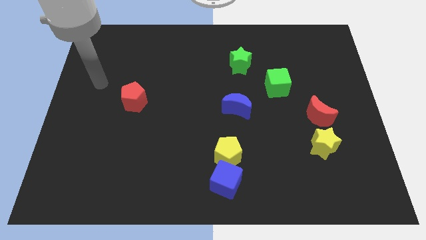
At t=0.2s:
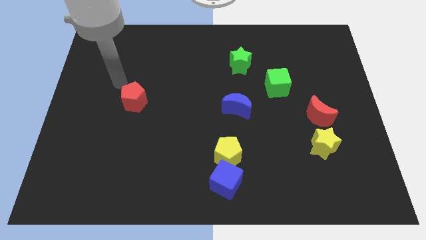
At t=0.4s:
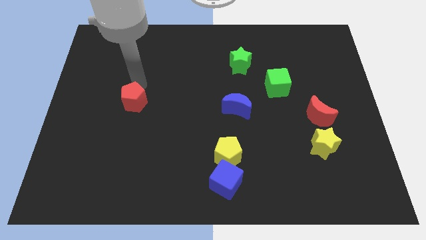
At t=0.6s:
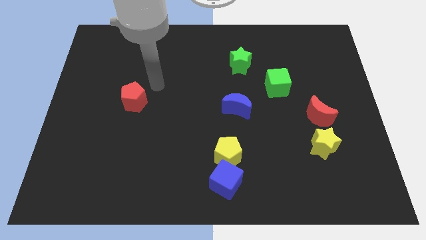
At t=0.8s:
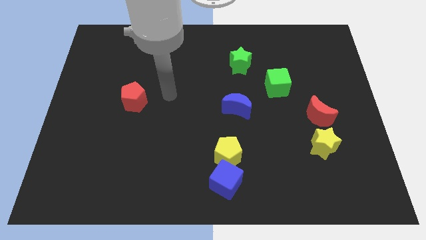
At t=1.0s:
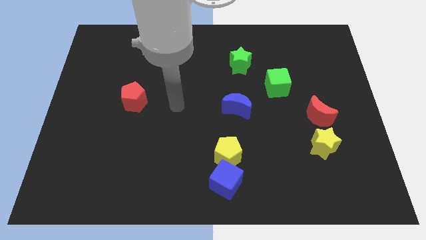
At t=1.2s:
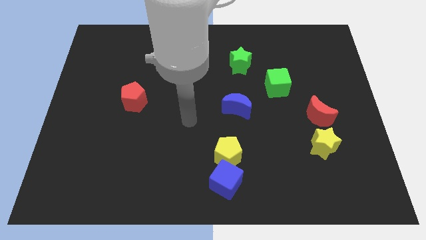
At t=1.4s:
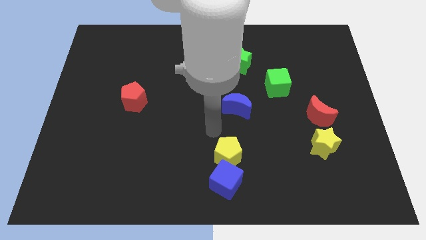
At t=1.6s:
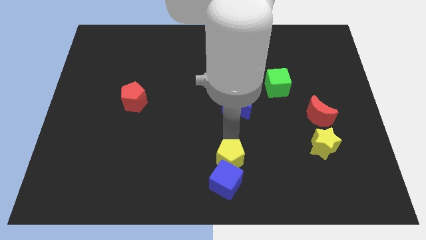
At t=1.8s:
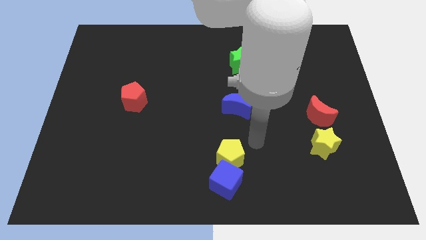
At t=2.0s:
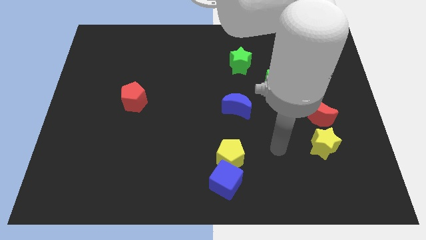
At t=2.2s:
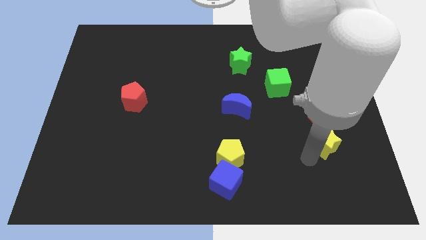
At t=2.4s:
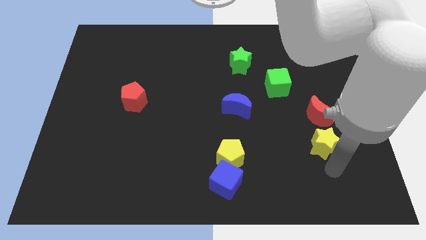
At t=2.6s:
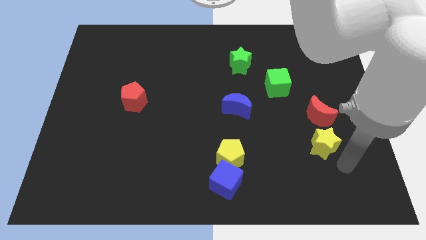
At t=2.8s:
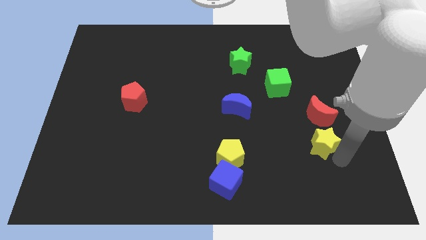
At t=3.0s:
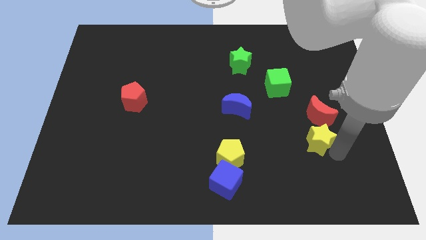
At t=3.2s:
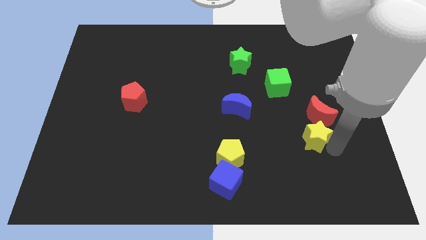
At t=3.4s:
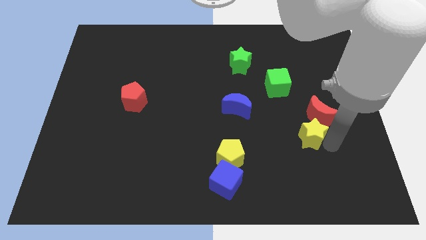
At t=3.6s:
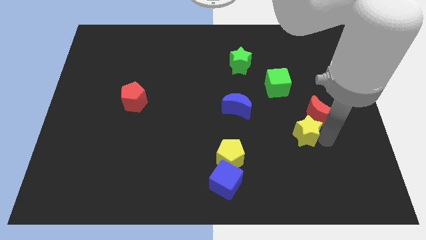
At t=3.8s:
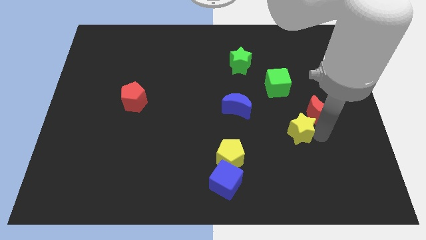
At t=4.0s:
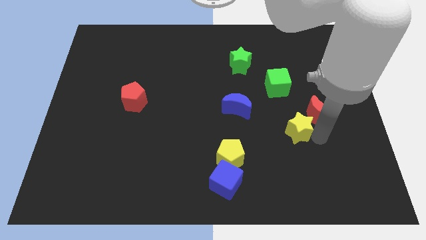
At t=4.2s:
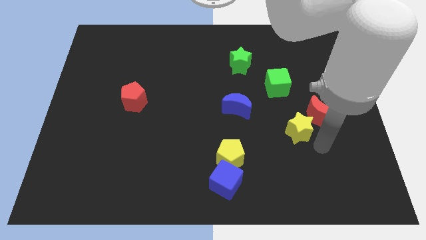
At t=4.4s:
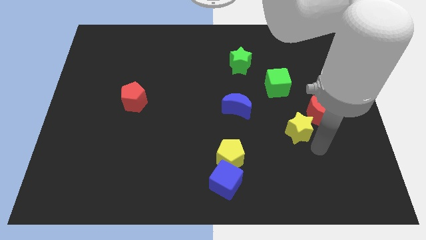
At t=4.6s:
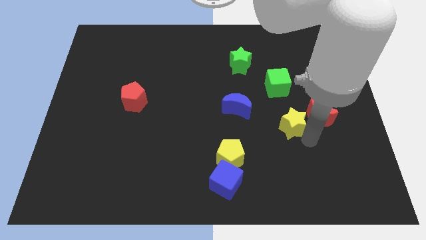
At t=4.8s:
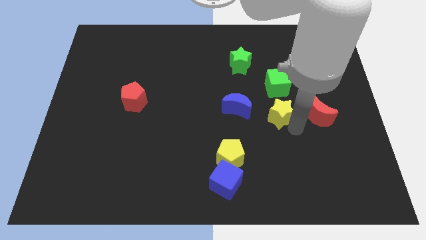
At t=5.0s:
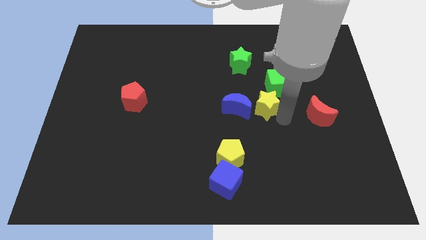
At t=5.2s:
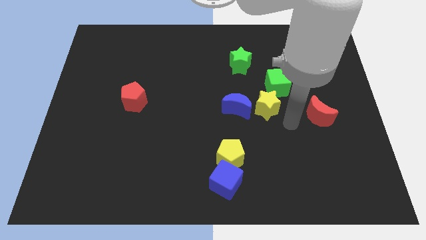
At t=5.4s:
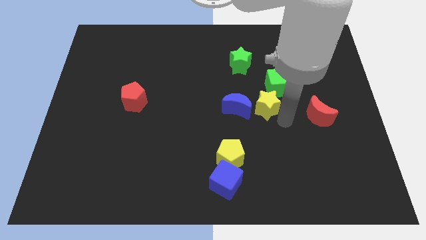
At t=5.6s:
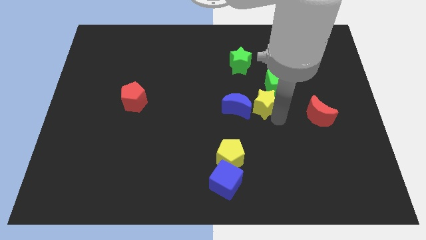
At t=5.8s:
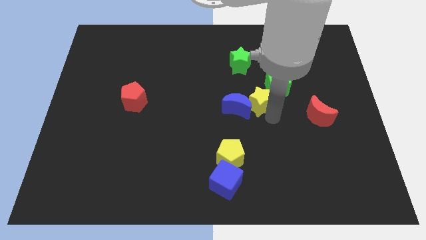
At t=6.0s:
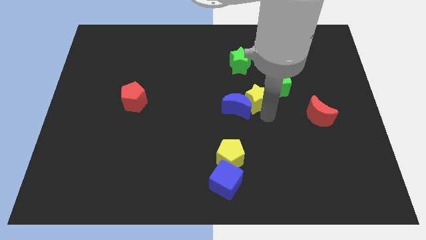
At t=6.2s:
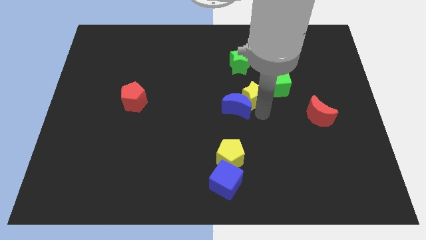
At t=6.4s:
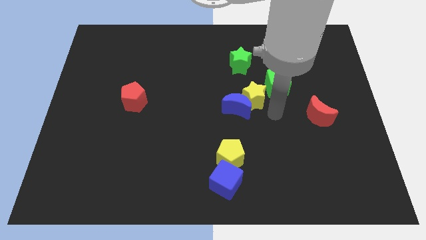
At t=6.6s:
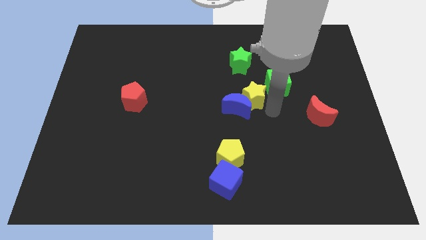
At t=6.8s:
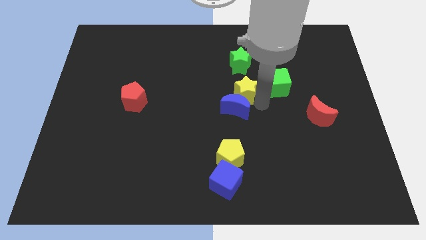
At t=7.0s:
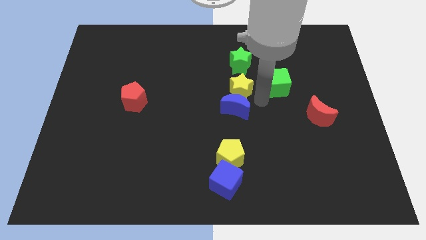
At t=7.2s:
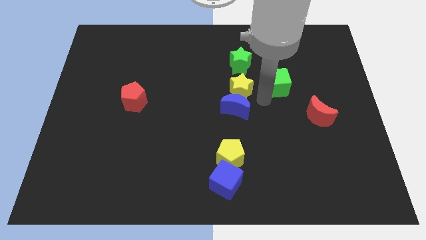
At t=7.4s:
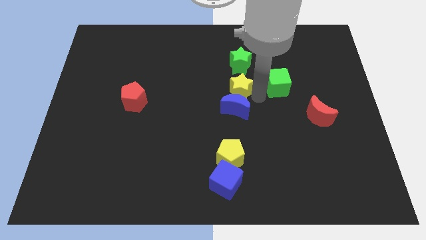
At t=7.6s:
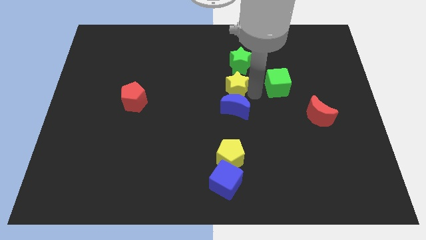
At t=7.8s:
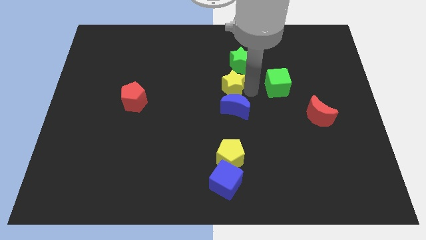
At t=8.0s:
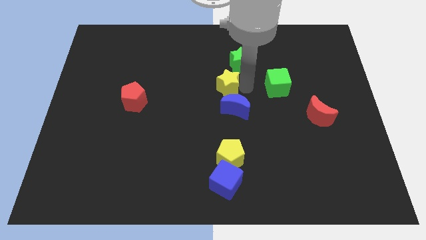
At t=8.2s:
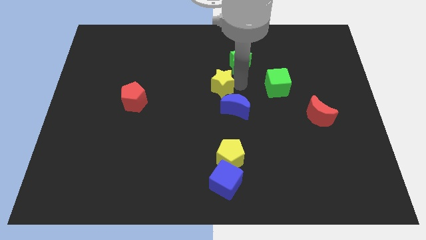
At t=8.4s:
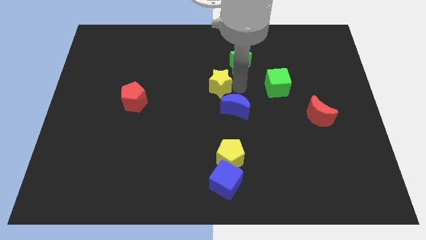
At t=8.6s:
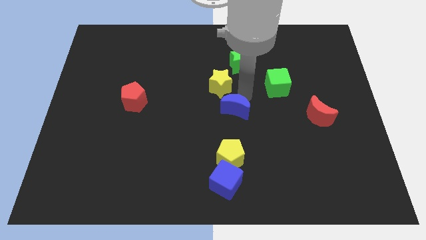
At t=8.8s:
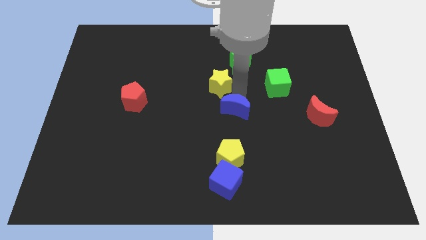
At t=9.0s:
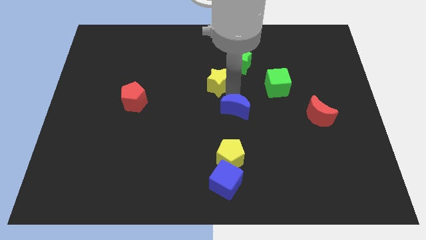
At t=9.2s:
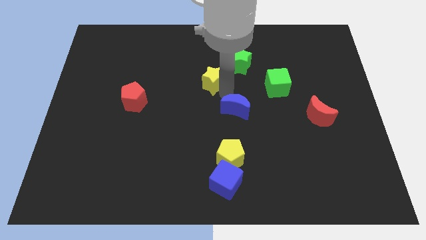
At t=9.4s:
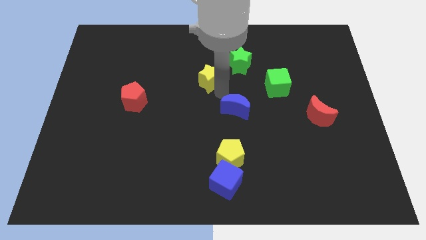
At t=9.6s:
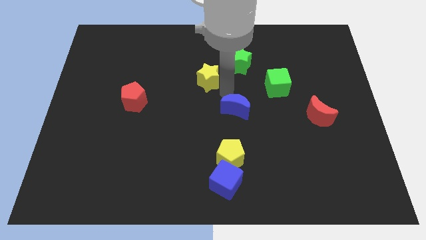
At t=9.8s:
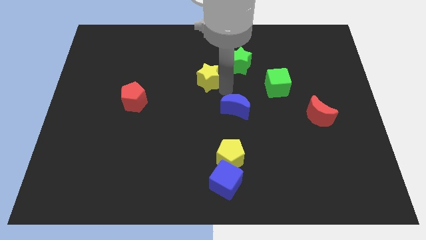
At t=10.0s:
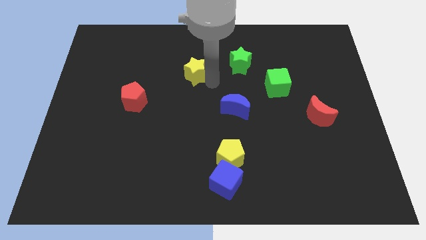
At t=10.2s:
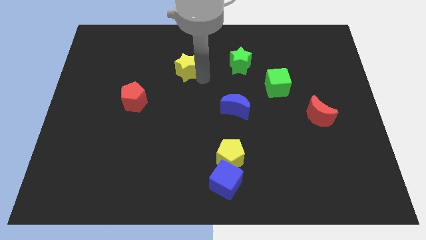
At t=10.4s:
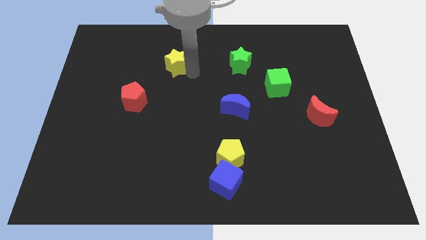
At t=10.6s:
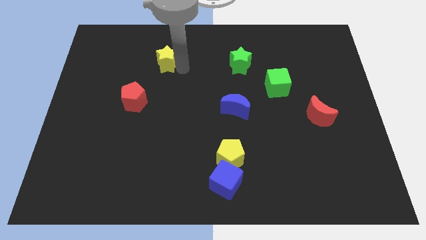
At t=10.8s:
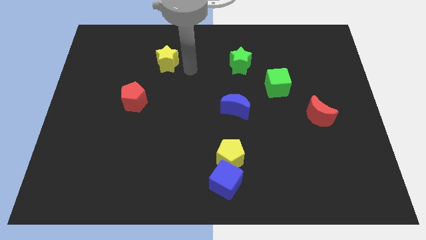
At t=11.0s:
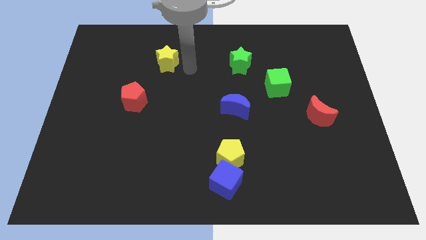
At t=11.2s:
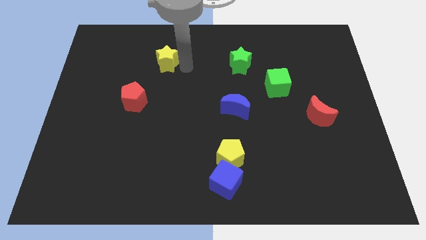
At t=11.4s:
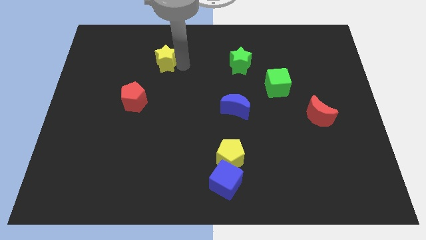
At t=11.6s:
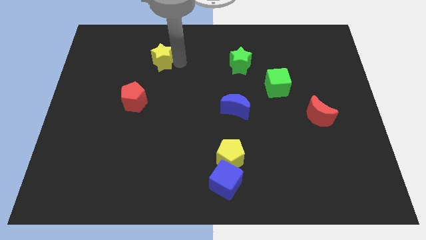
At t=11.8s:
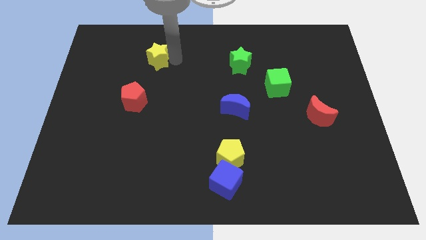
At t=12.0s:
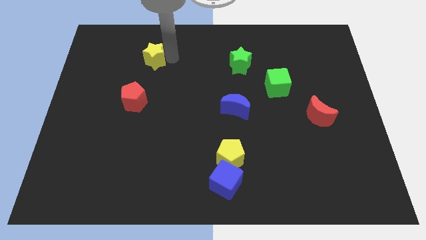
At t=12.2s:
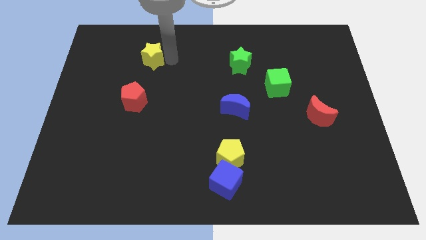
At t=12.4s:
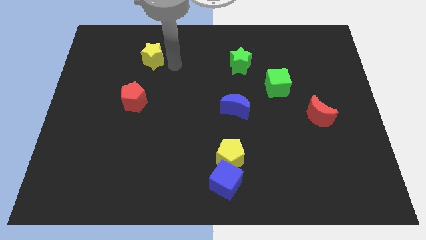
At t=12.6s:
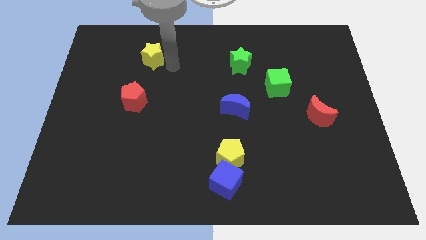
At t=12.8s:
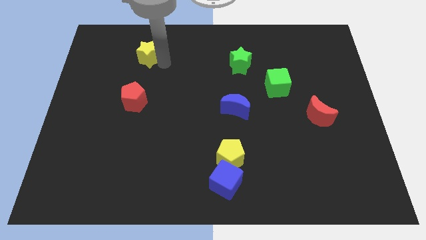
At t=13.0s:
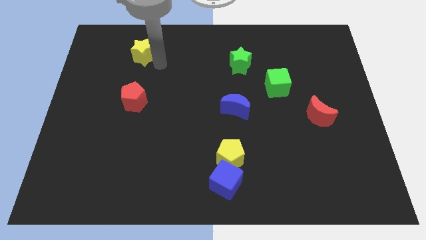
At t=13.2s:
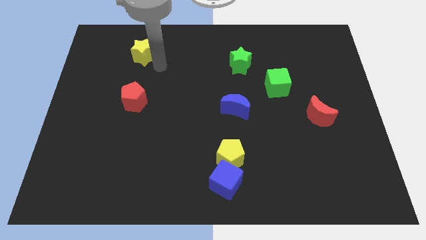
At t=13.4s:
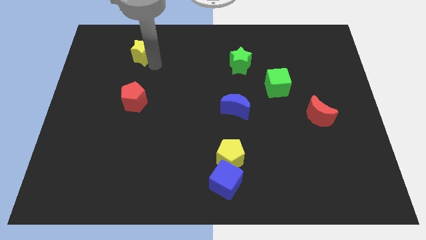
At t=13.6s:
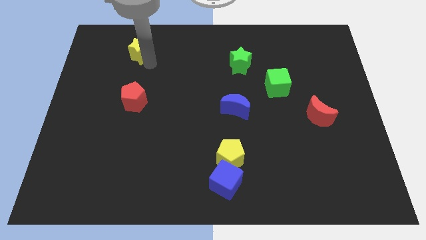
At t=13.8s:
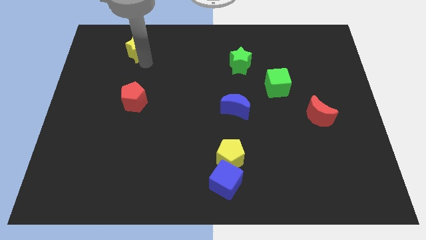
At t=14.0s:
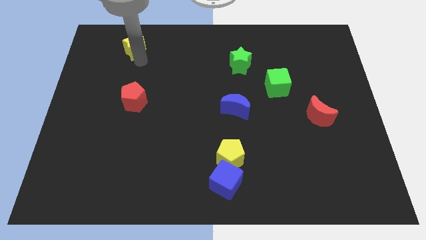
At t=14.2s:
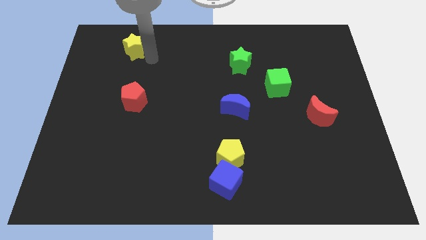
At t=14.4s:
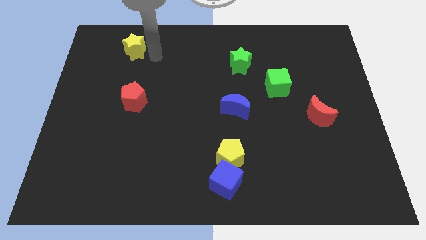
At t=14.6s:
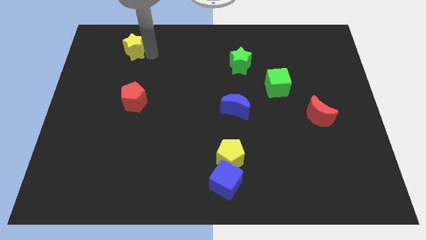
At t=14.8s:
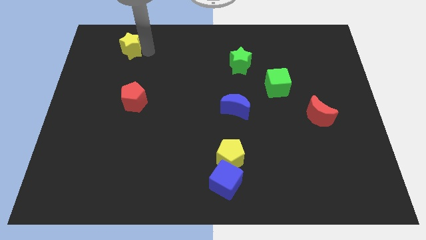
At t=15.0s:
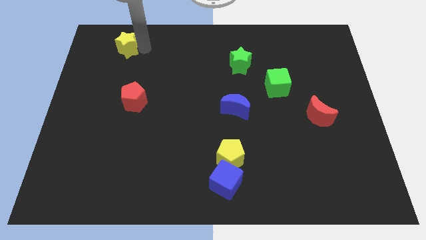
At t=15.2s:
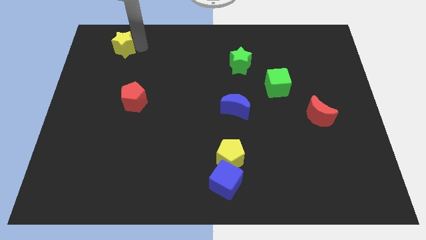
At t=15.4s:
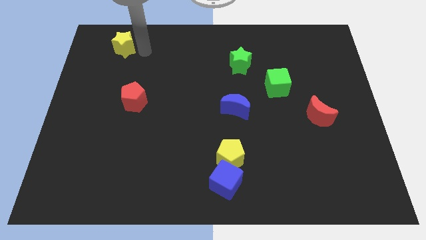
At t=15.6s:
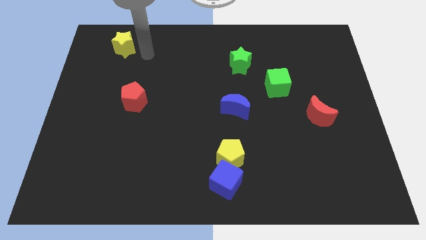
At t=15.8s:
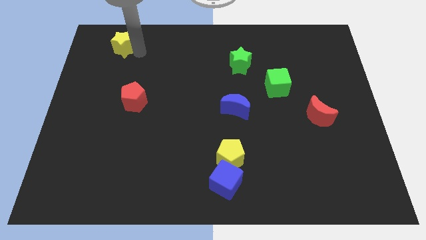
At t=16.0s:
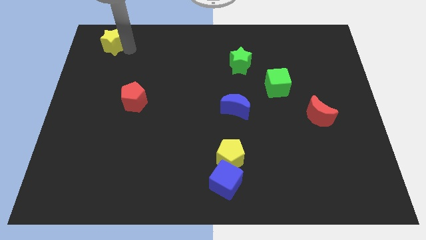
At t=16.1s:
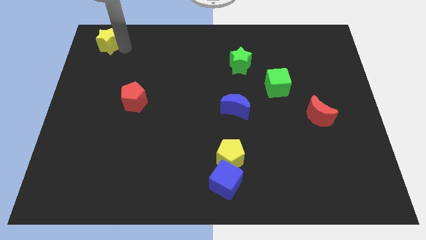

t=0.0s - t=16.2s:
put the yellow star to the upper left corner
